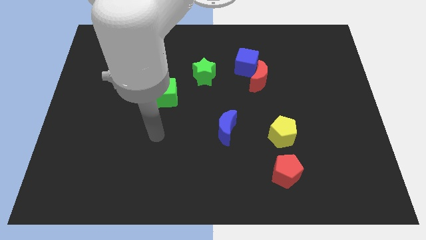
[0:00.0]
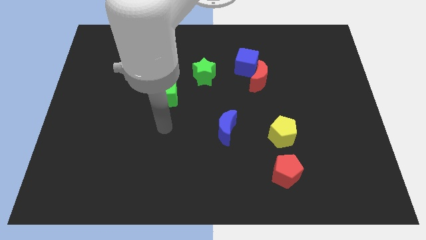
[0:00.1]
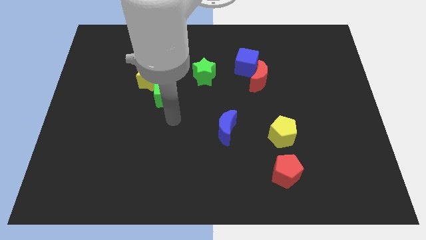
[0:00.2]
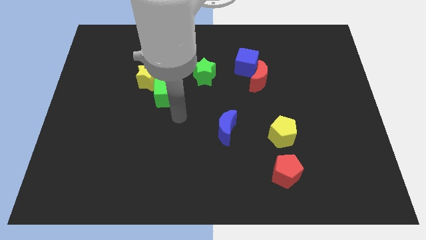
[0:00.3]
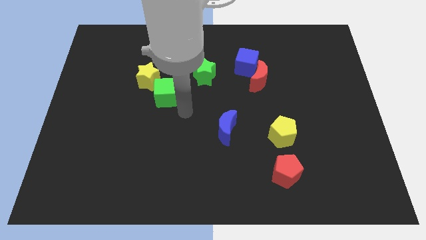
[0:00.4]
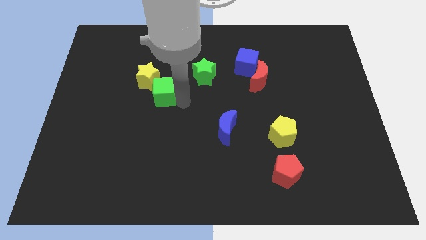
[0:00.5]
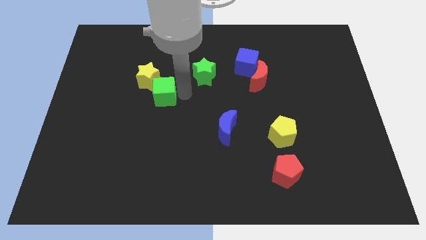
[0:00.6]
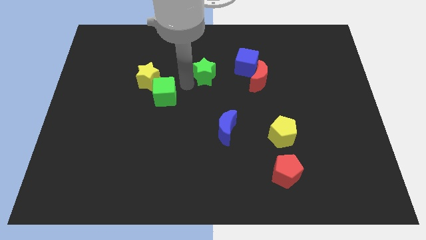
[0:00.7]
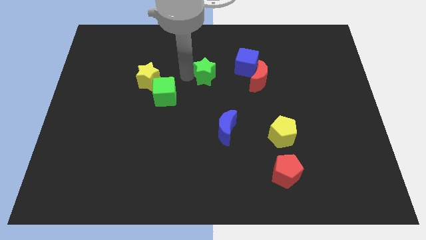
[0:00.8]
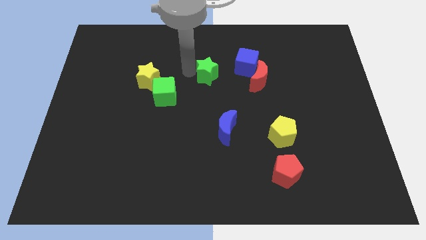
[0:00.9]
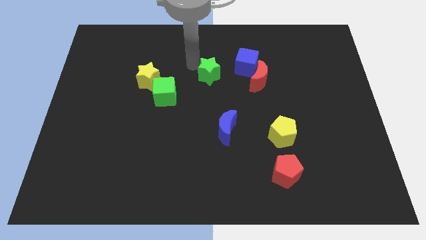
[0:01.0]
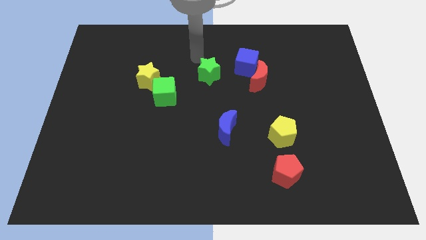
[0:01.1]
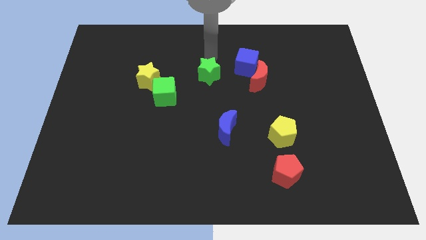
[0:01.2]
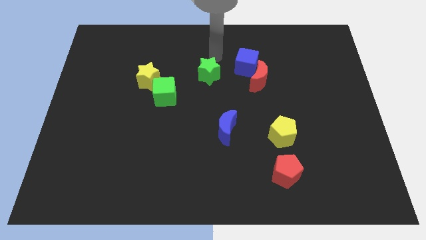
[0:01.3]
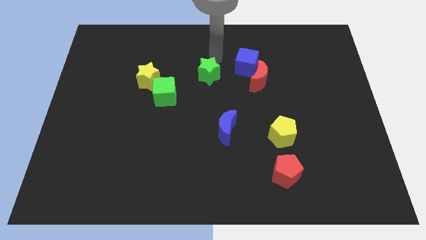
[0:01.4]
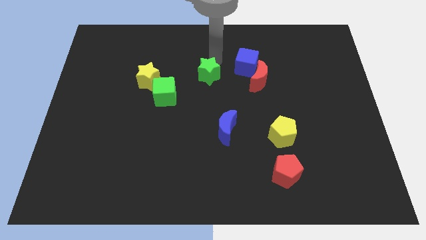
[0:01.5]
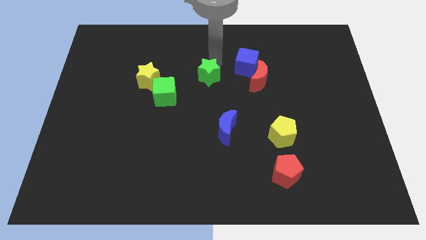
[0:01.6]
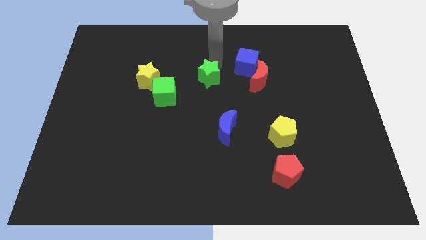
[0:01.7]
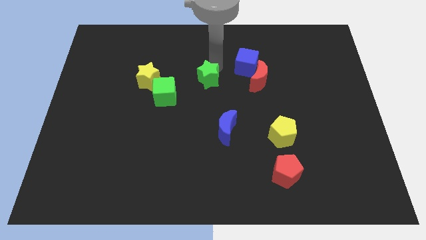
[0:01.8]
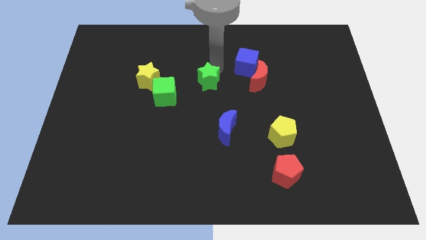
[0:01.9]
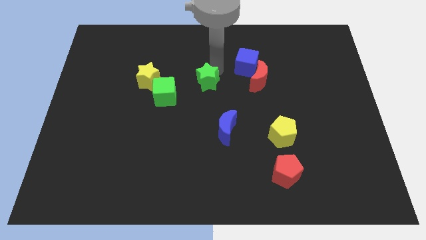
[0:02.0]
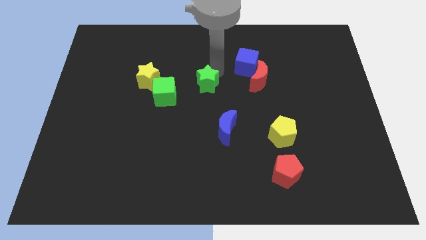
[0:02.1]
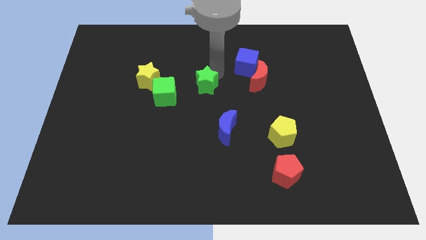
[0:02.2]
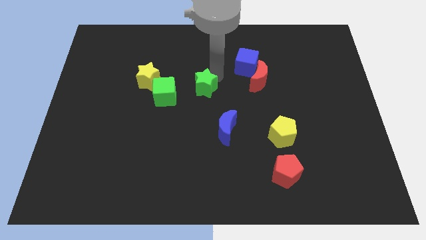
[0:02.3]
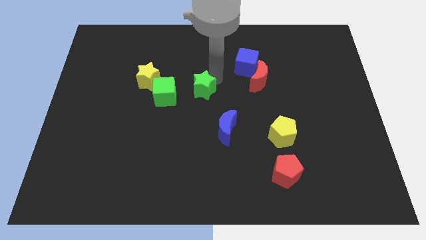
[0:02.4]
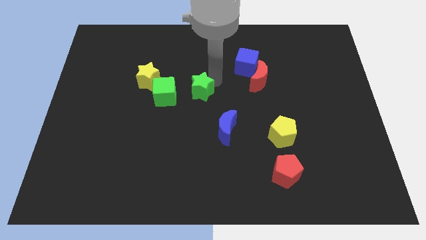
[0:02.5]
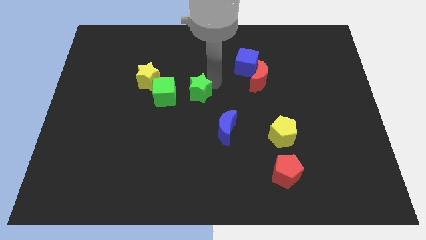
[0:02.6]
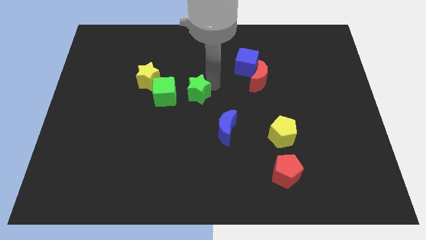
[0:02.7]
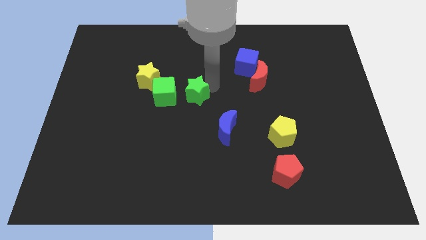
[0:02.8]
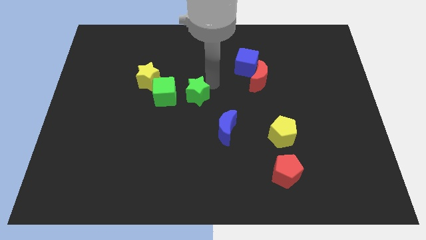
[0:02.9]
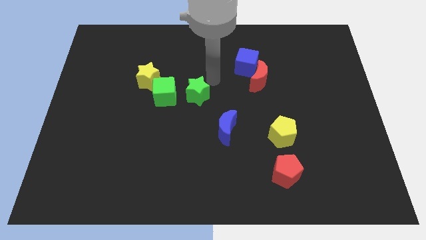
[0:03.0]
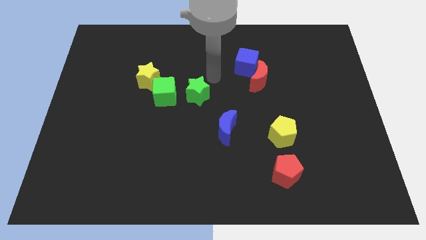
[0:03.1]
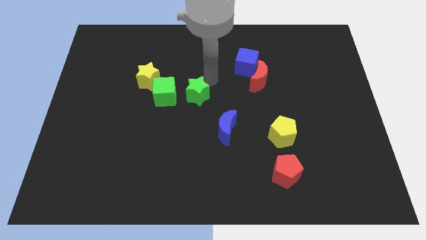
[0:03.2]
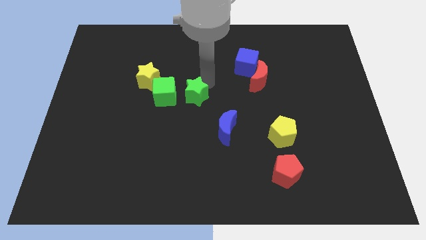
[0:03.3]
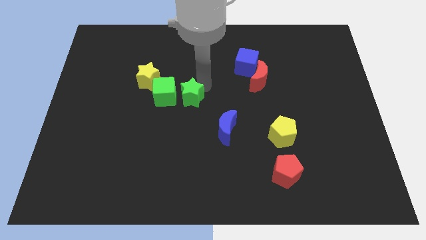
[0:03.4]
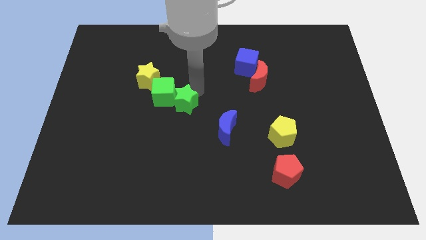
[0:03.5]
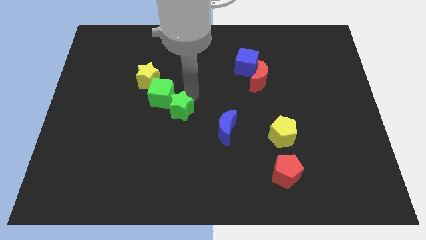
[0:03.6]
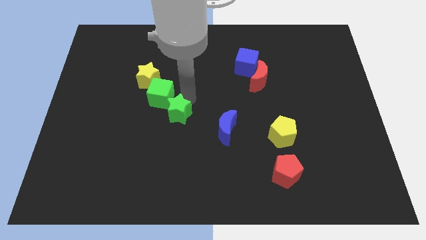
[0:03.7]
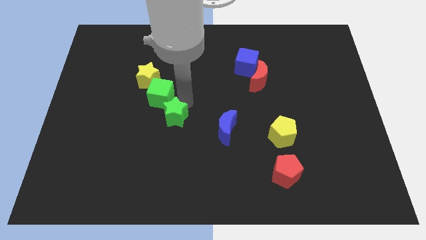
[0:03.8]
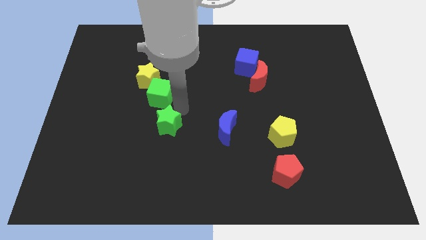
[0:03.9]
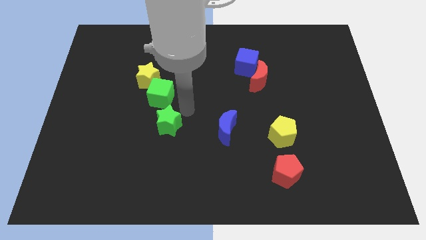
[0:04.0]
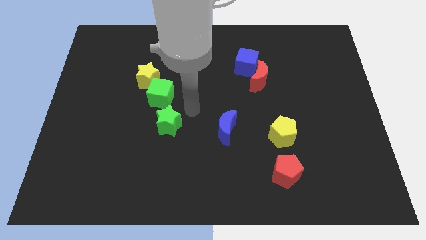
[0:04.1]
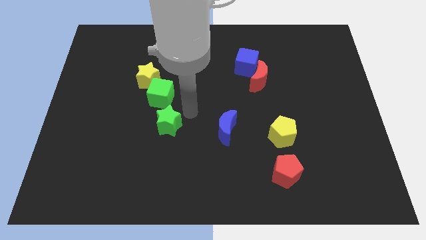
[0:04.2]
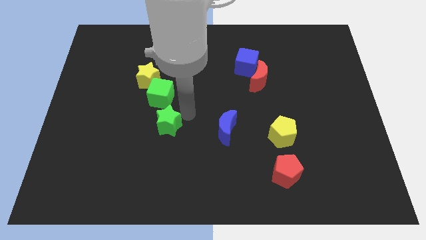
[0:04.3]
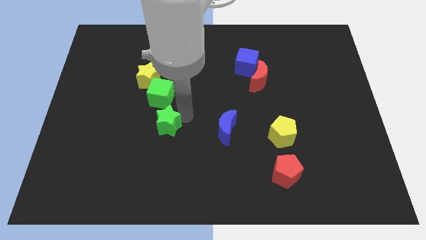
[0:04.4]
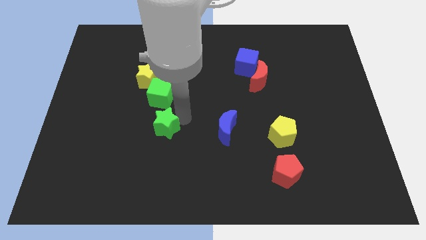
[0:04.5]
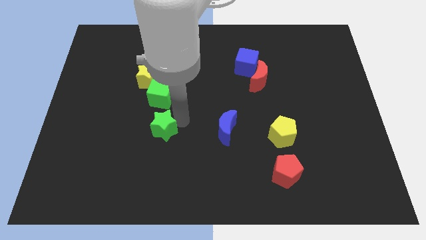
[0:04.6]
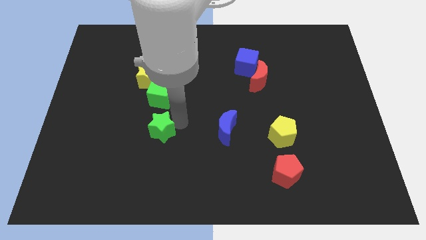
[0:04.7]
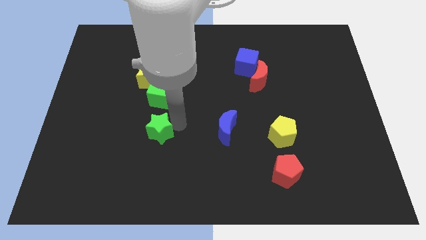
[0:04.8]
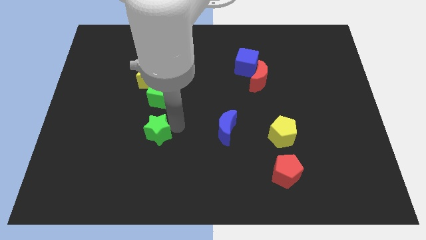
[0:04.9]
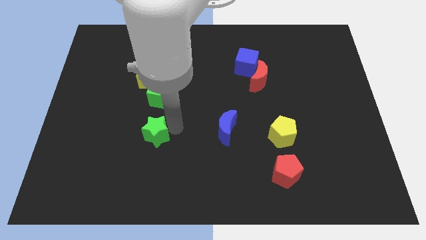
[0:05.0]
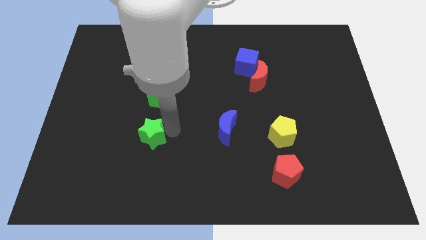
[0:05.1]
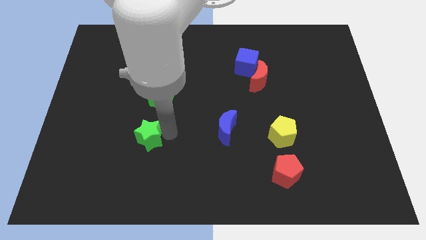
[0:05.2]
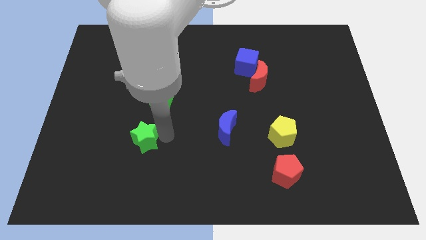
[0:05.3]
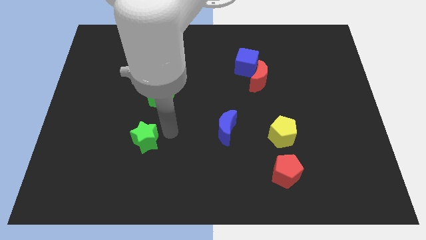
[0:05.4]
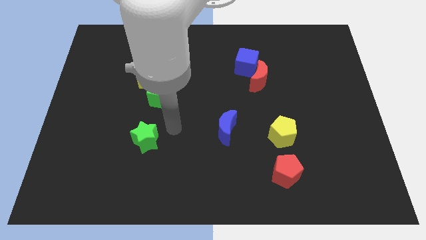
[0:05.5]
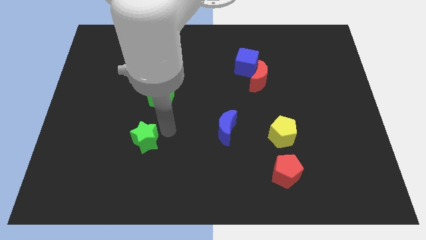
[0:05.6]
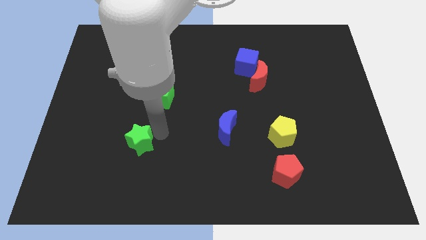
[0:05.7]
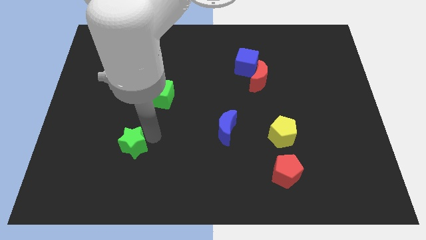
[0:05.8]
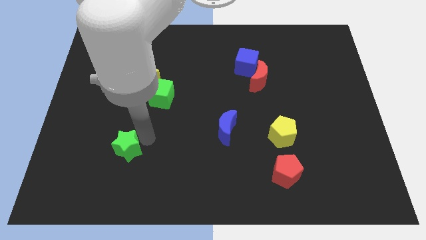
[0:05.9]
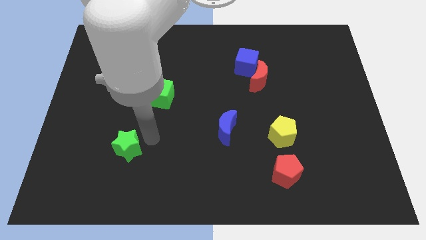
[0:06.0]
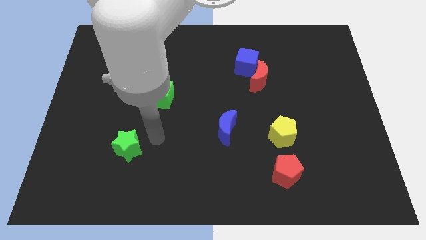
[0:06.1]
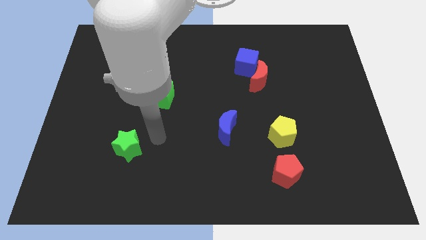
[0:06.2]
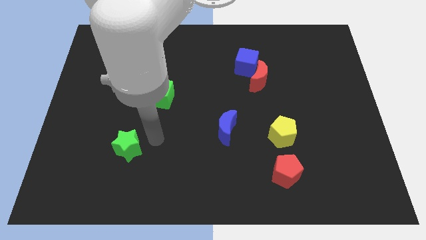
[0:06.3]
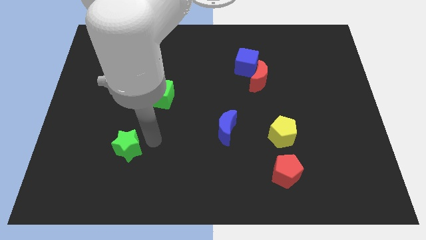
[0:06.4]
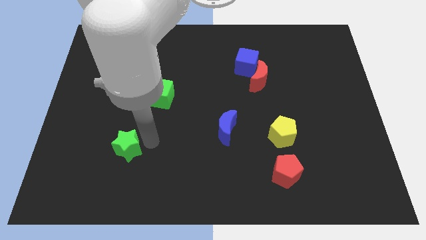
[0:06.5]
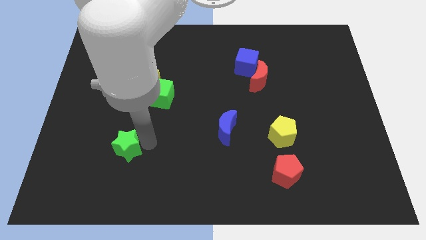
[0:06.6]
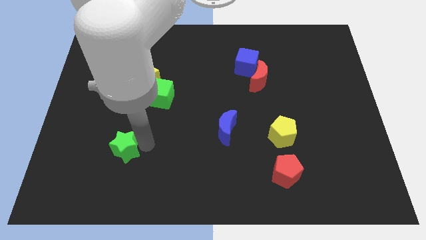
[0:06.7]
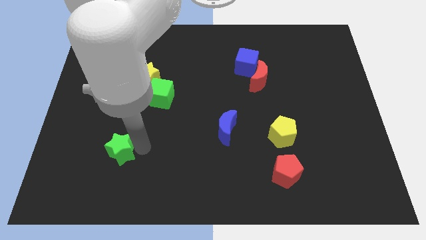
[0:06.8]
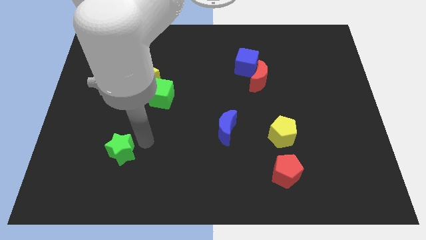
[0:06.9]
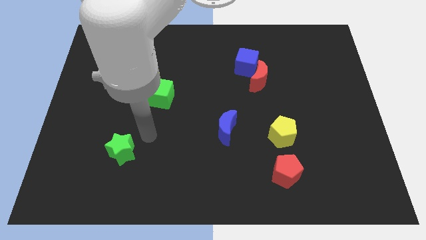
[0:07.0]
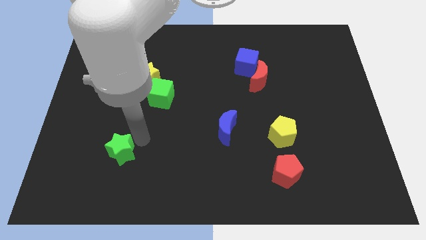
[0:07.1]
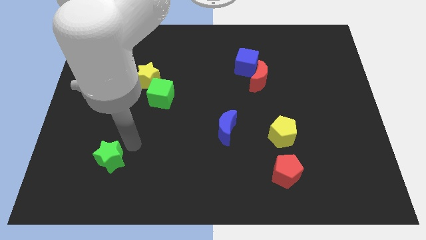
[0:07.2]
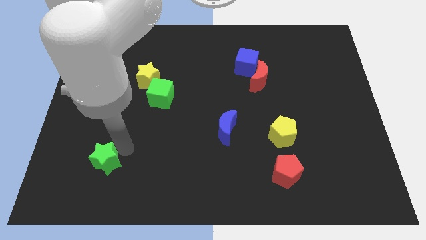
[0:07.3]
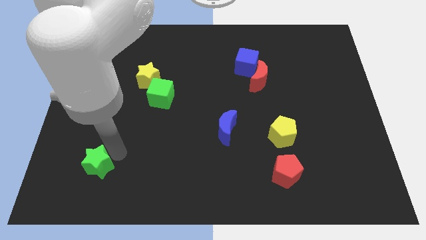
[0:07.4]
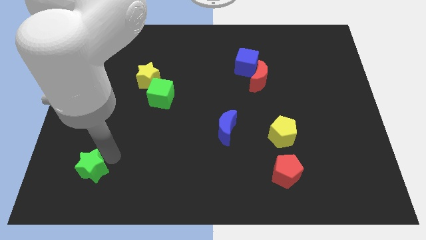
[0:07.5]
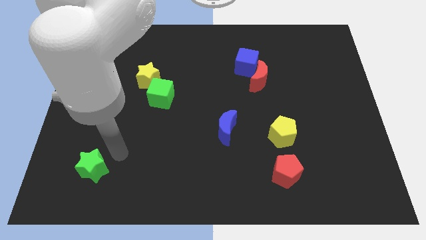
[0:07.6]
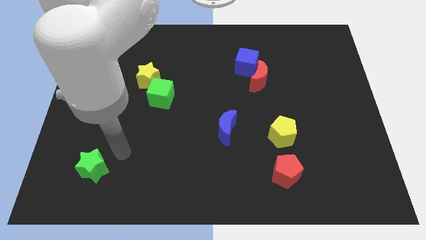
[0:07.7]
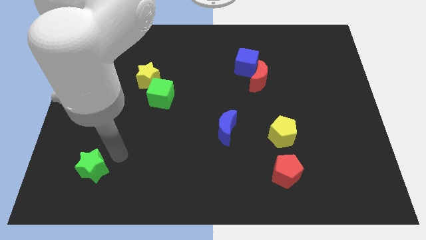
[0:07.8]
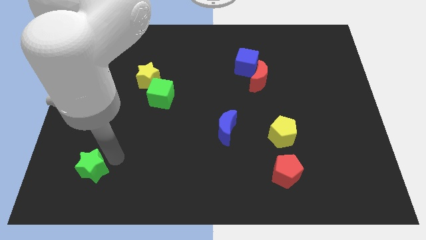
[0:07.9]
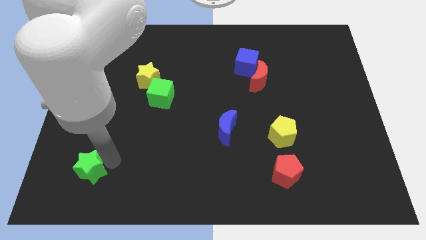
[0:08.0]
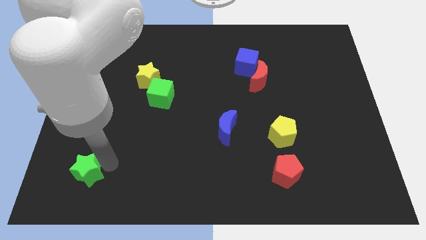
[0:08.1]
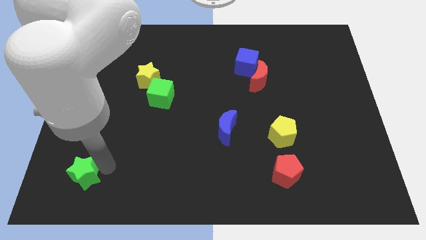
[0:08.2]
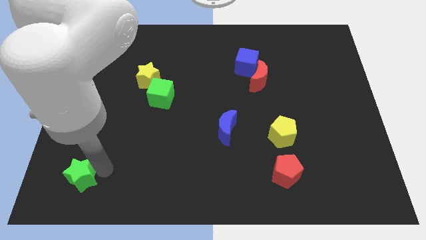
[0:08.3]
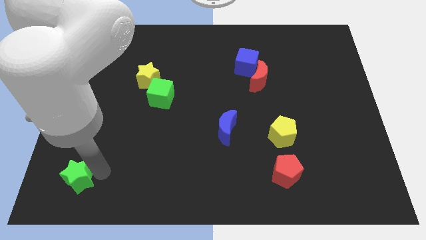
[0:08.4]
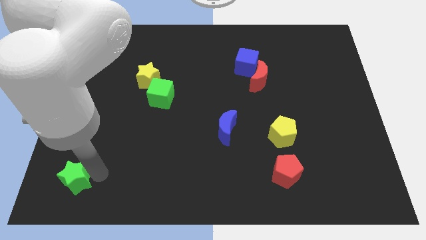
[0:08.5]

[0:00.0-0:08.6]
move the green star to the bottom left
